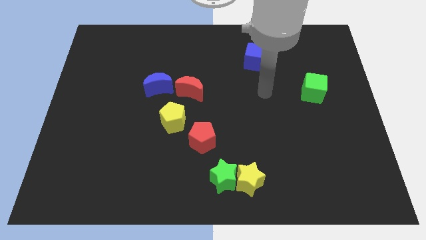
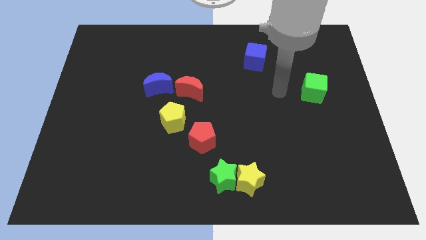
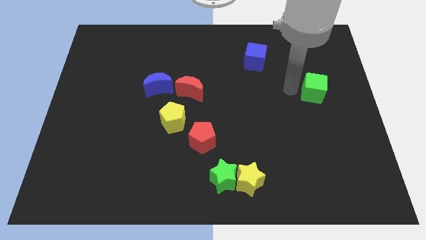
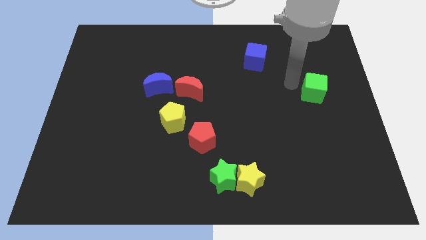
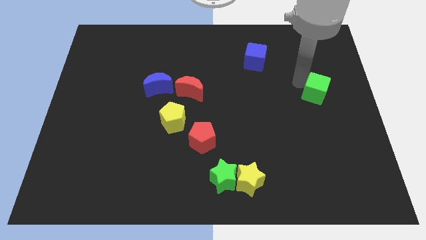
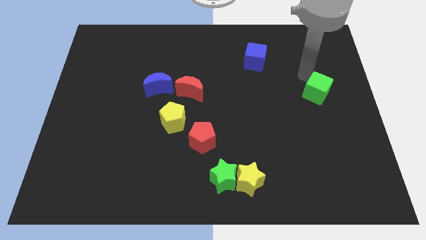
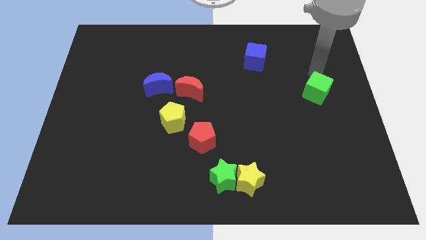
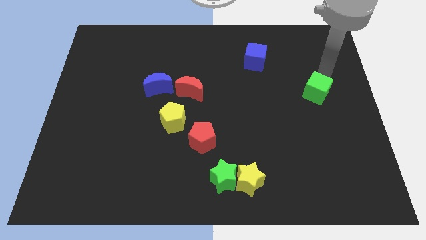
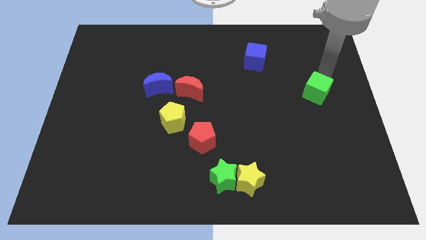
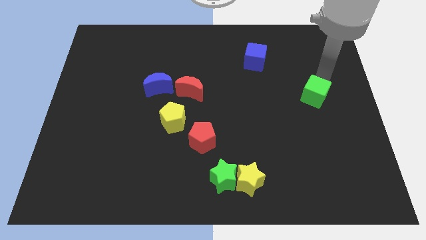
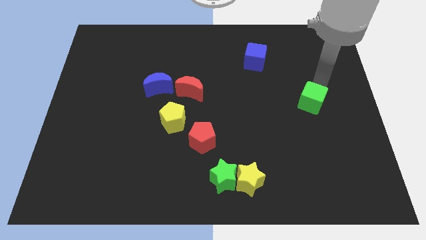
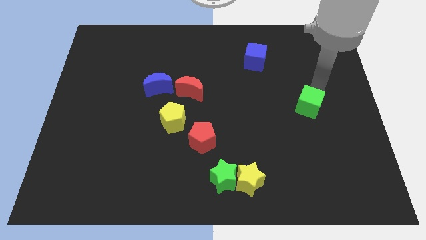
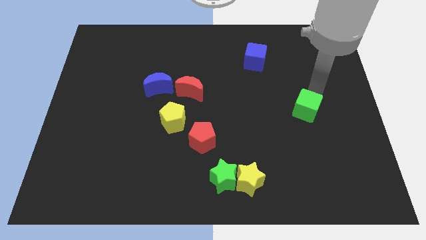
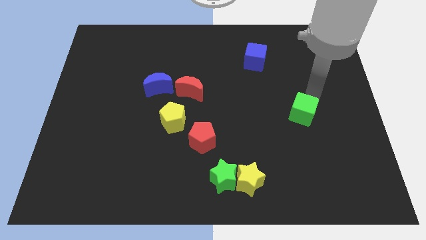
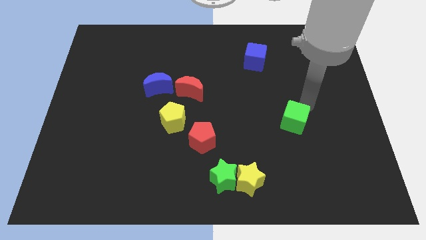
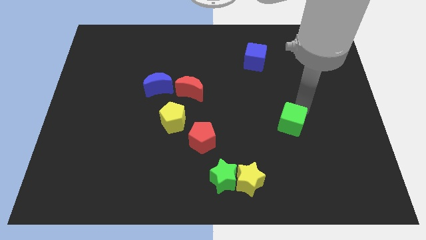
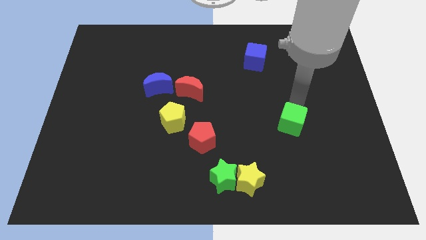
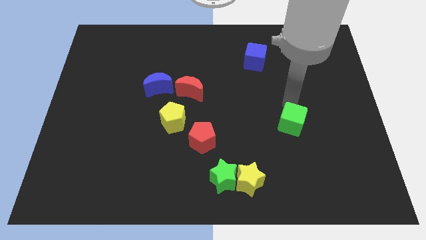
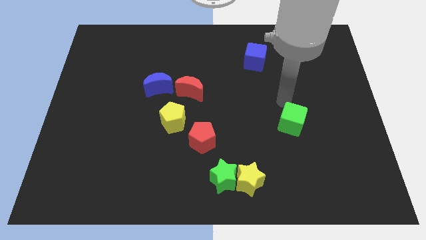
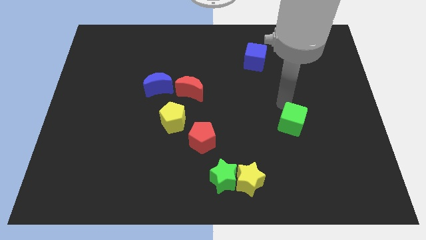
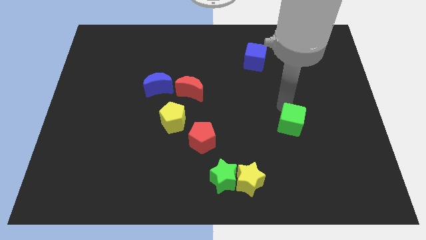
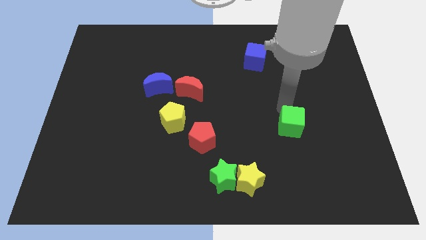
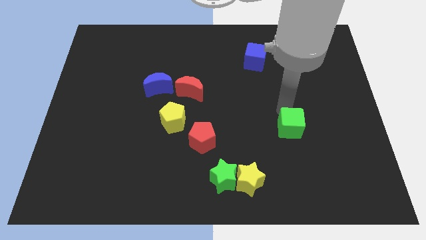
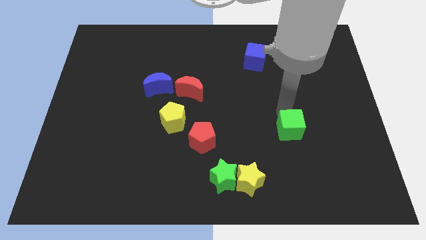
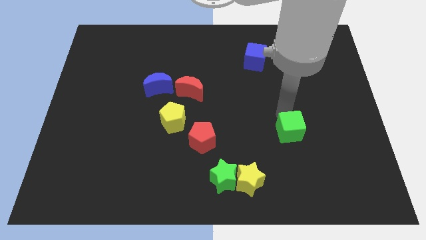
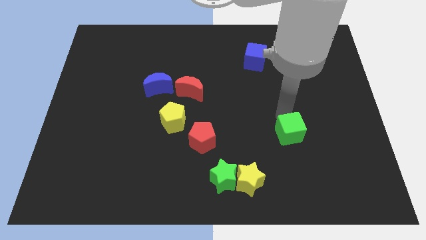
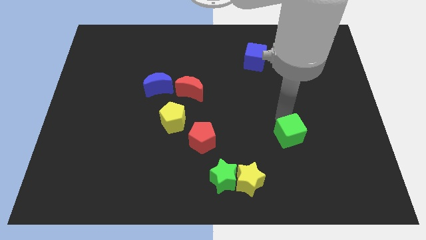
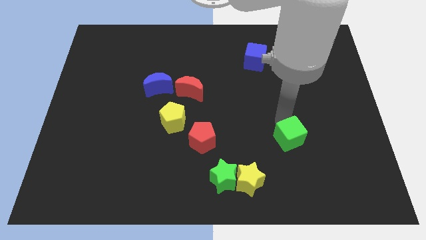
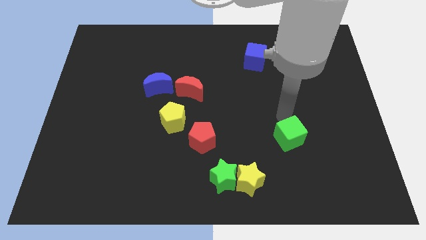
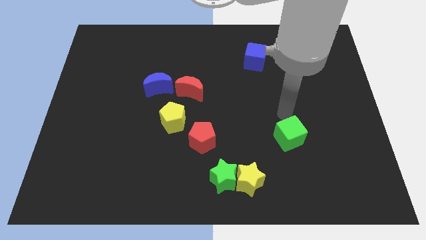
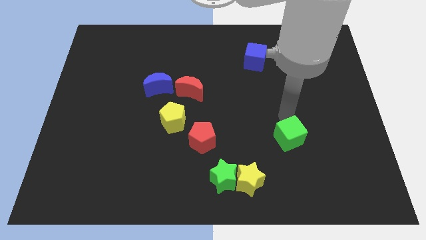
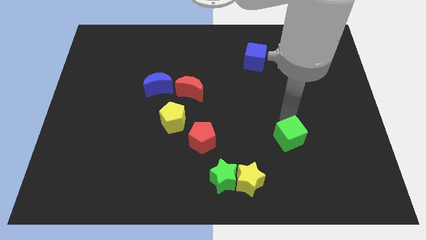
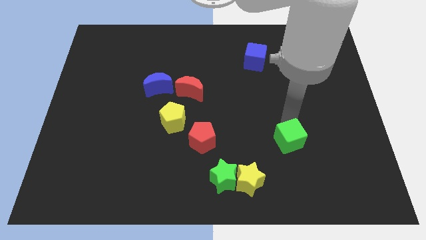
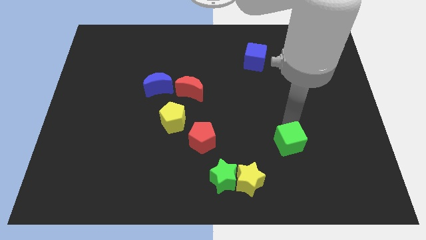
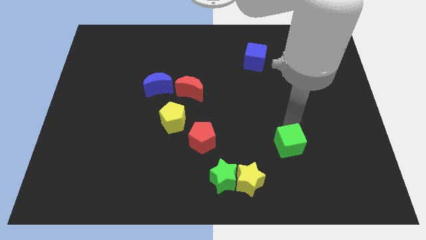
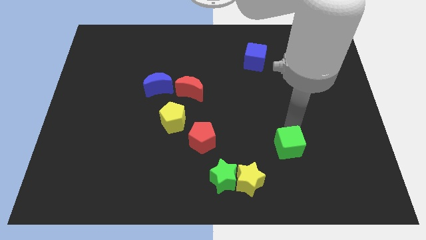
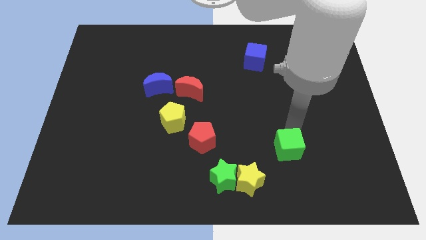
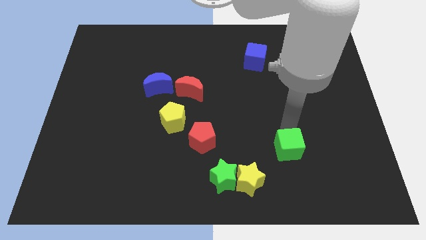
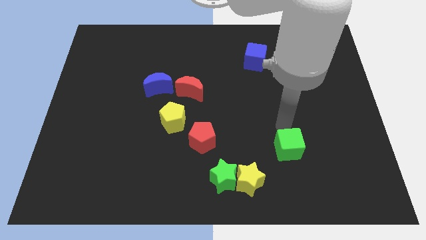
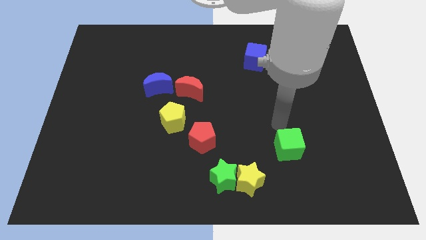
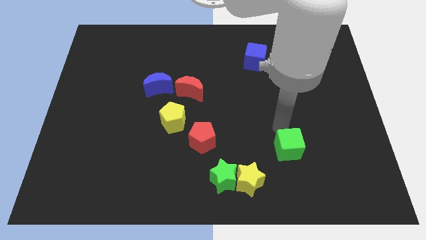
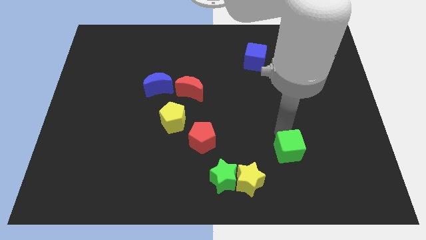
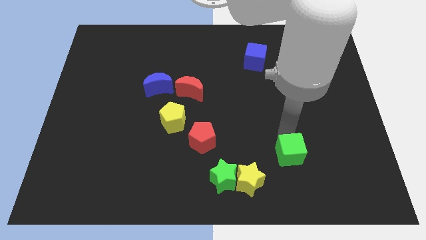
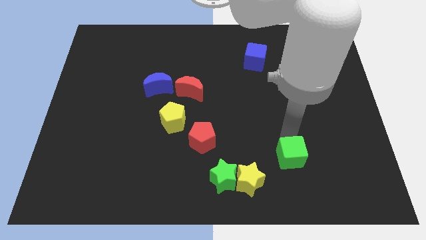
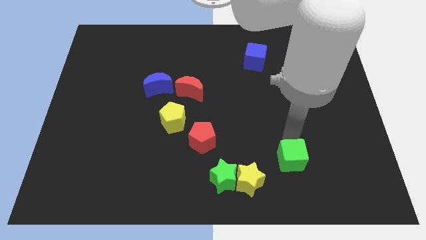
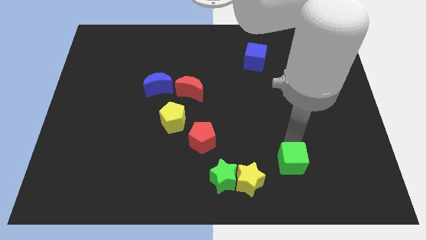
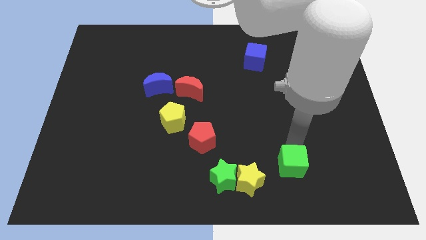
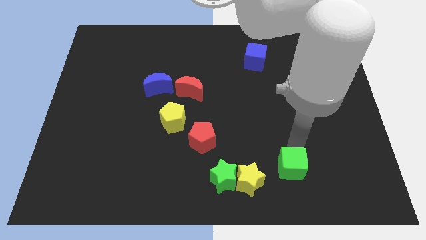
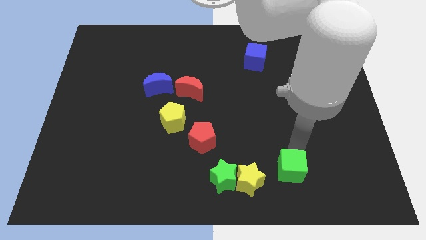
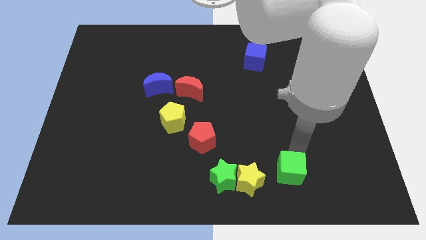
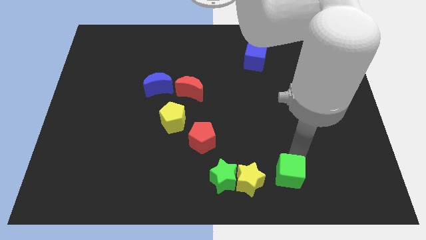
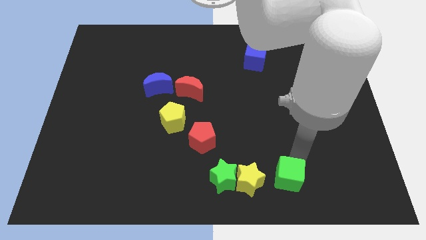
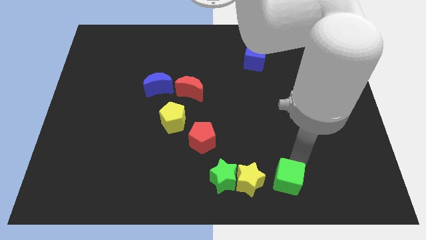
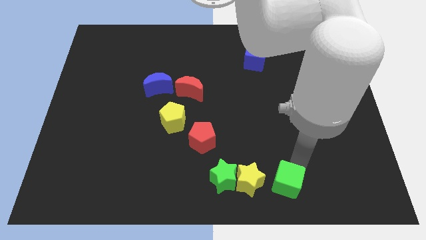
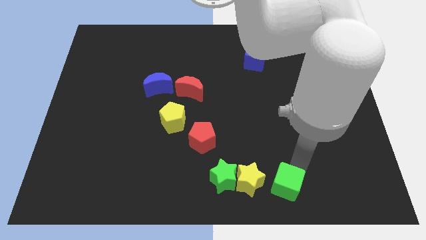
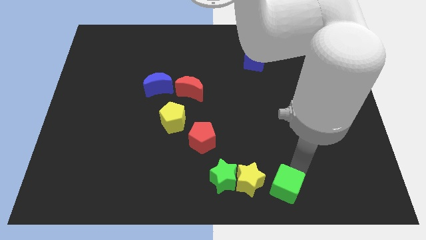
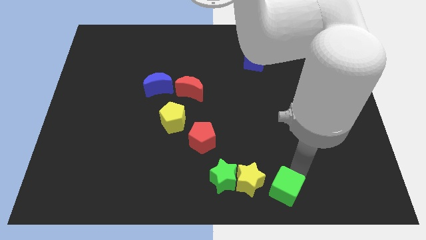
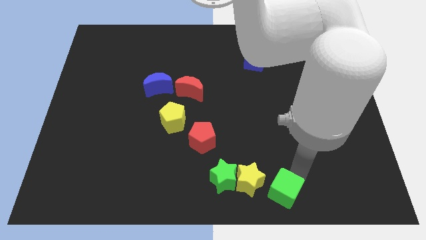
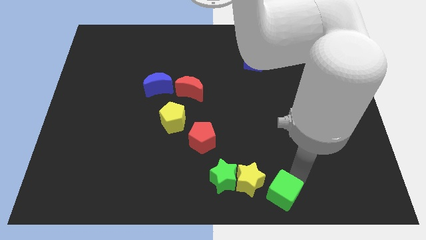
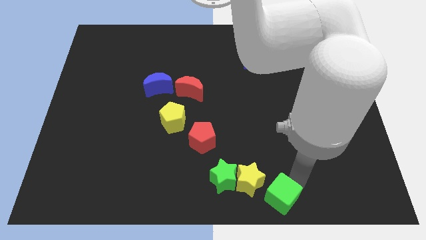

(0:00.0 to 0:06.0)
push the green cube to the bottom

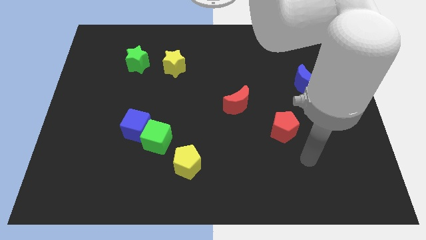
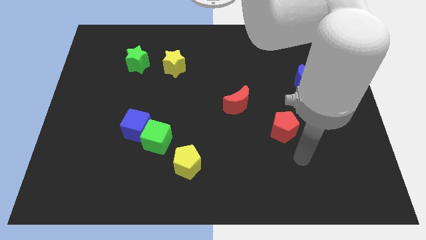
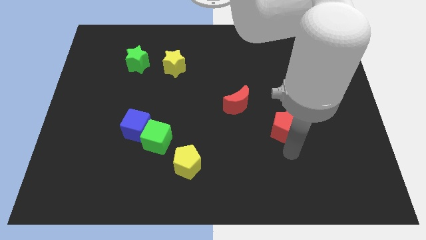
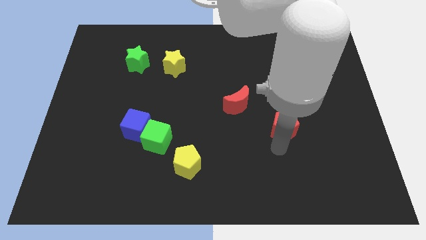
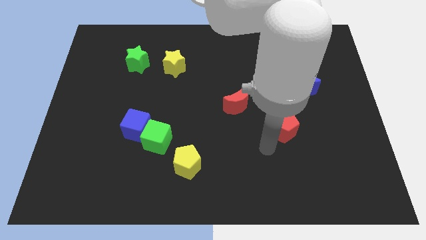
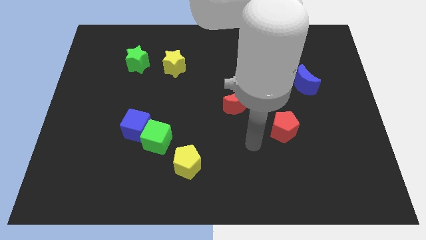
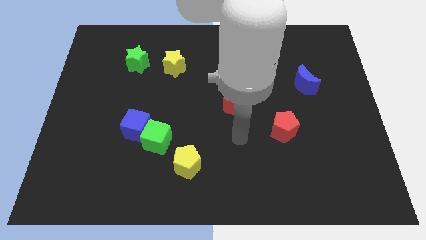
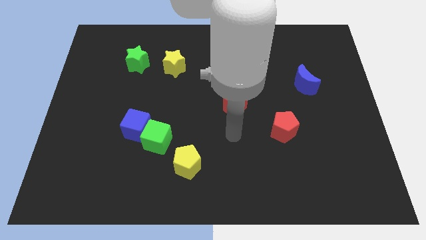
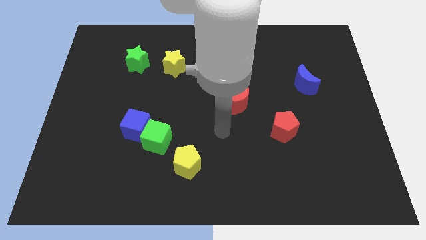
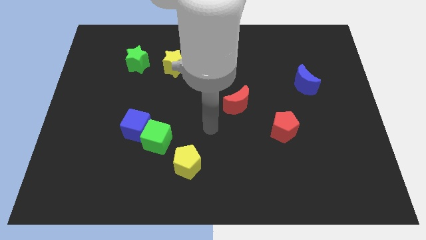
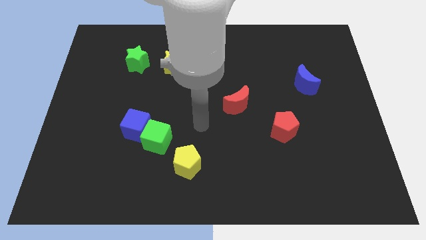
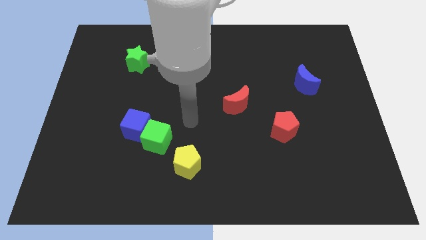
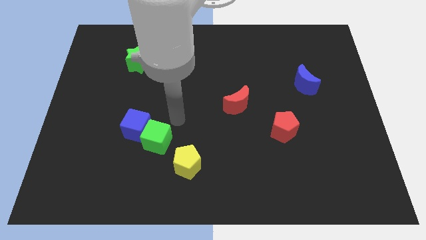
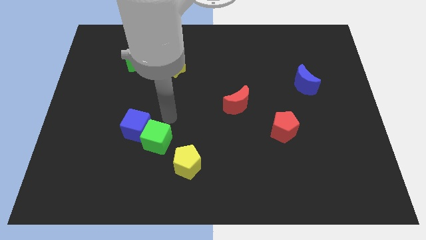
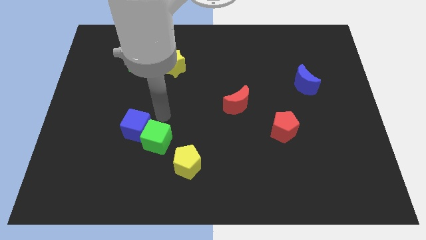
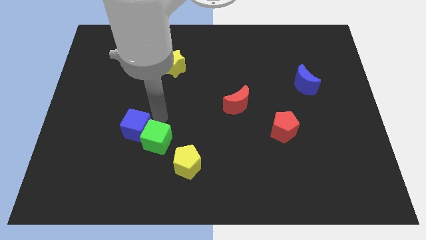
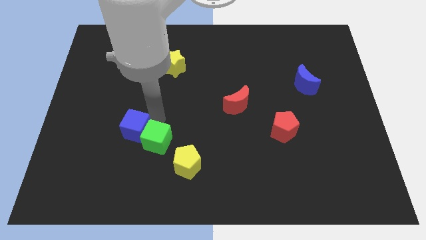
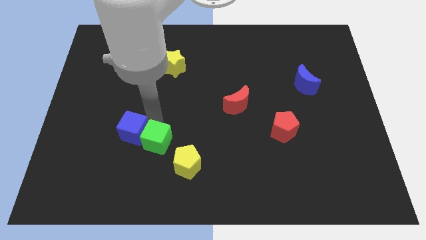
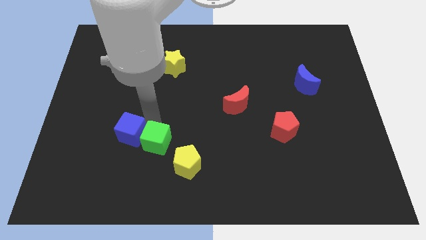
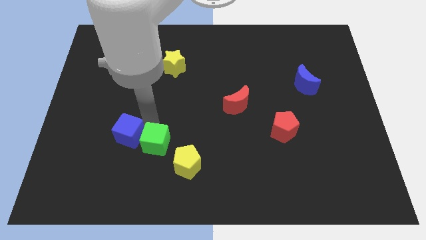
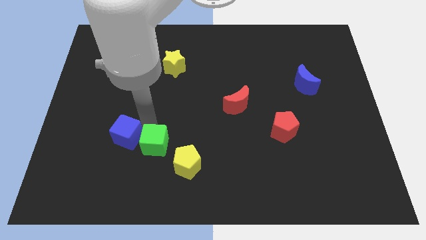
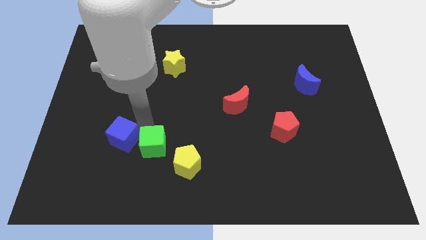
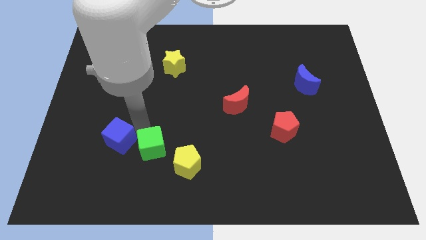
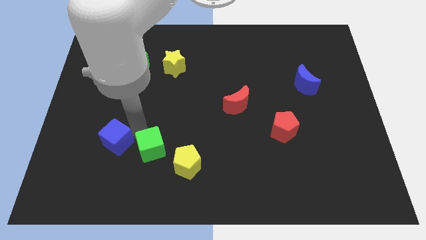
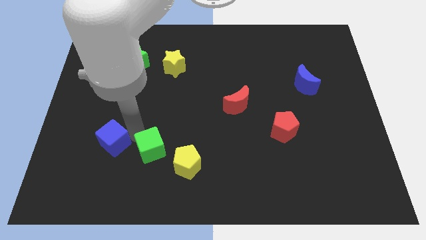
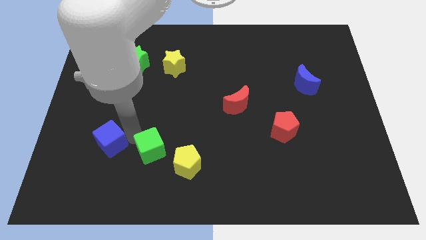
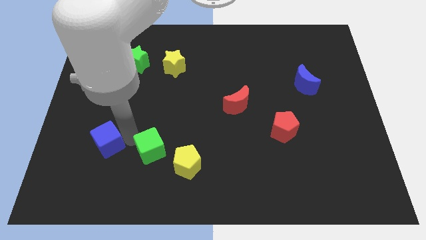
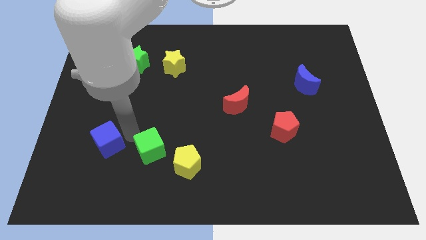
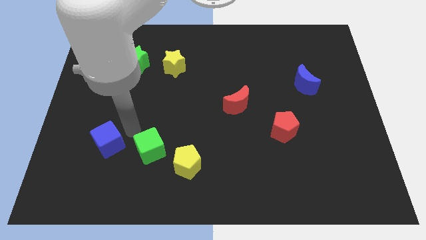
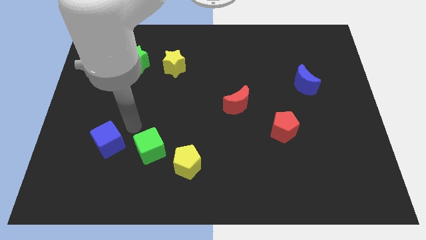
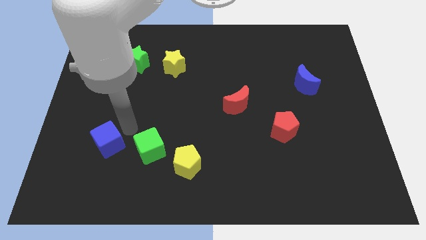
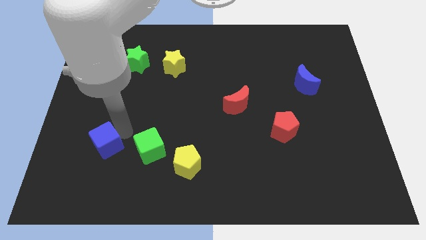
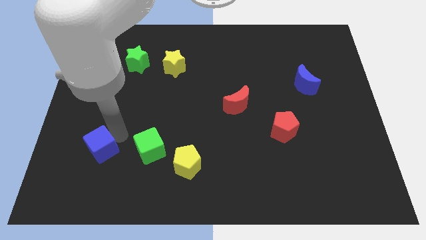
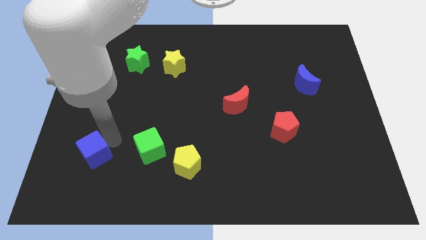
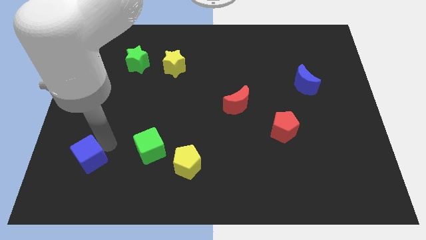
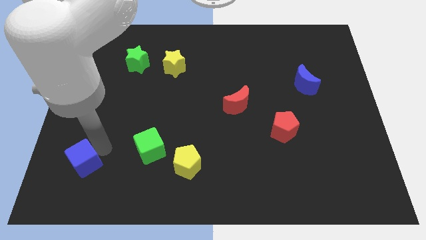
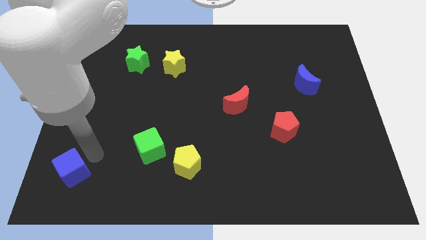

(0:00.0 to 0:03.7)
move the blue cube to the bottom left
